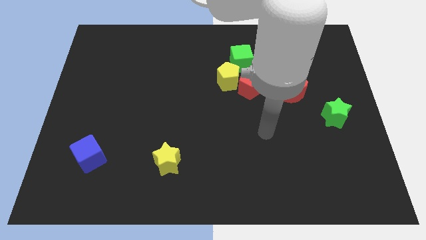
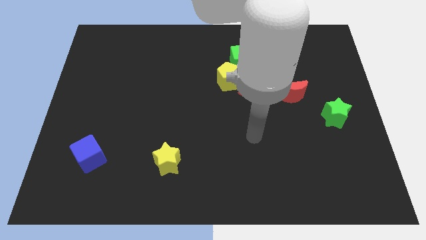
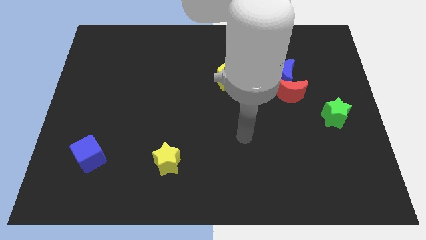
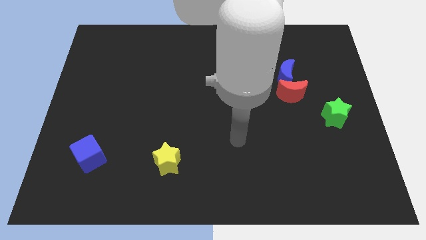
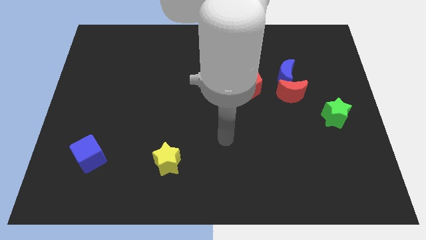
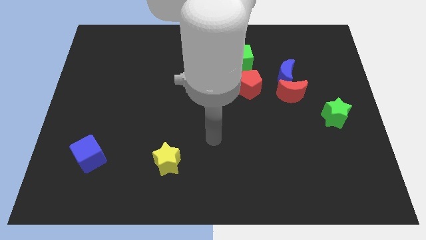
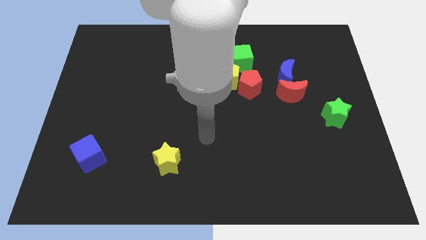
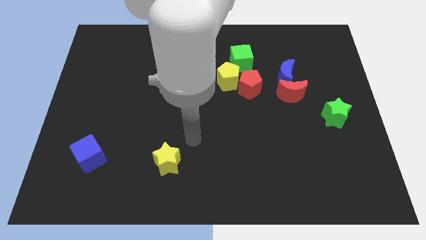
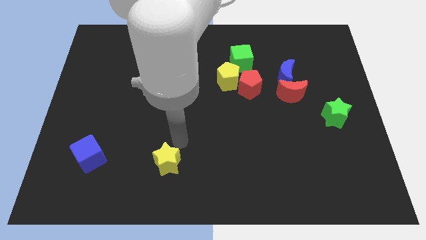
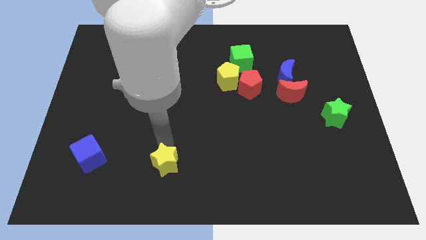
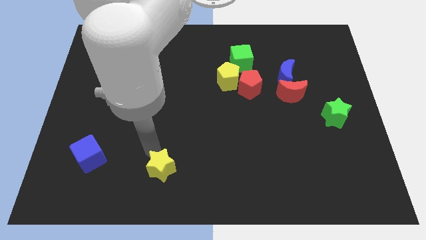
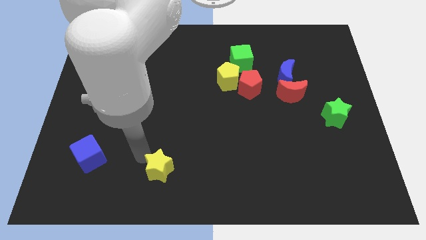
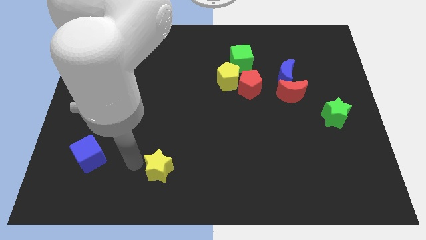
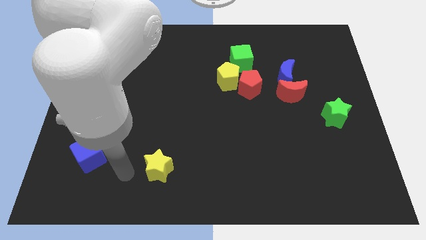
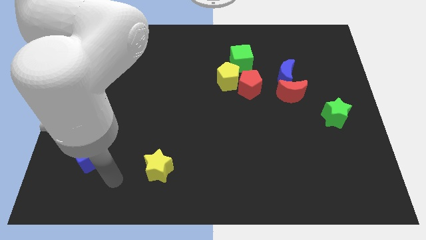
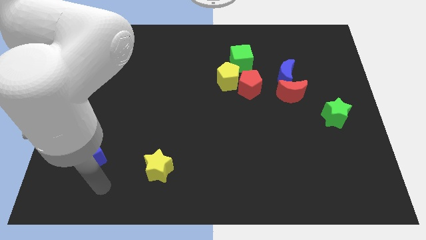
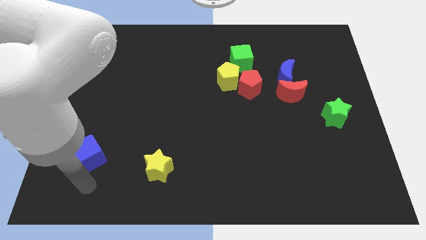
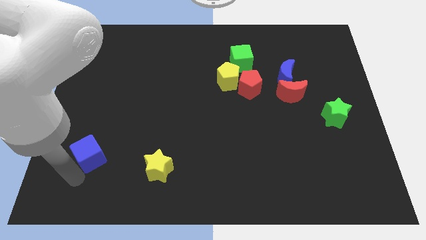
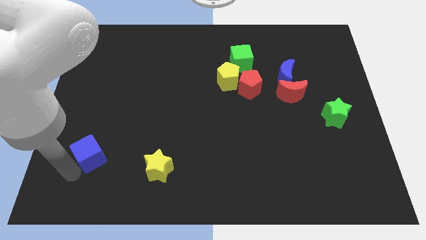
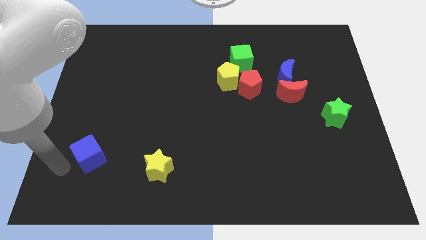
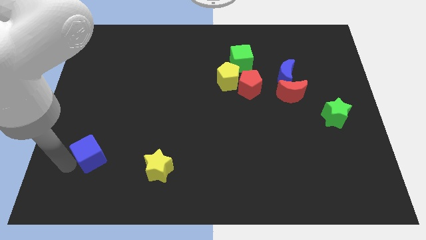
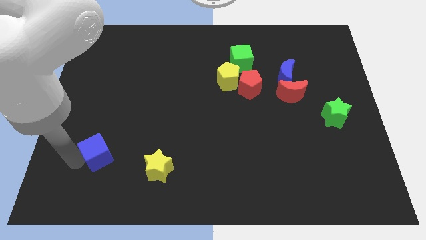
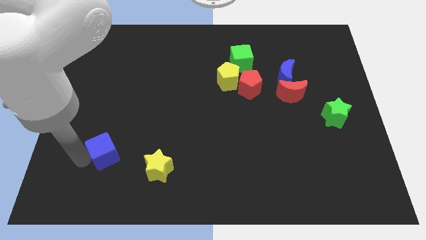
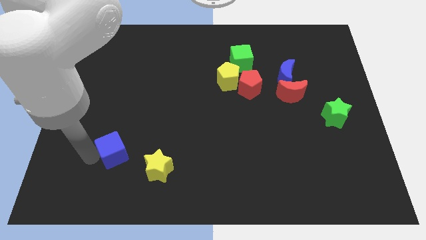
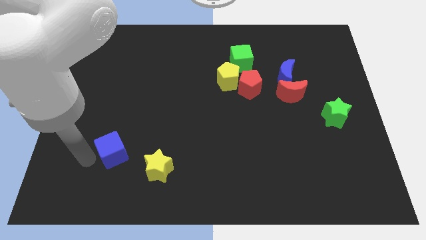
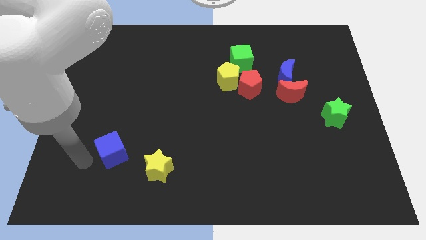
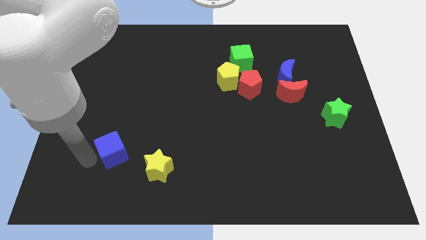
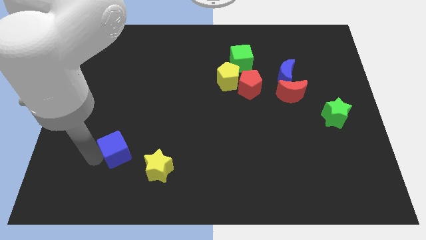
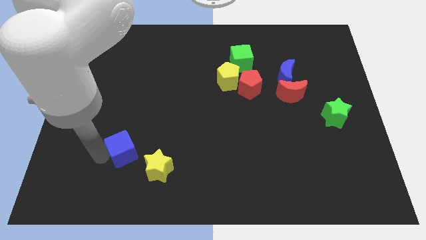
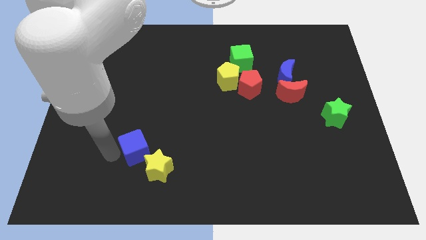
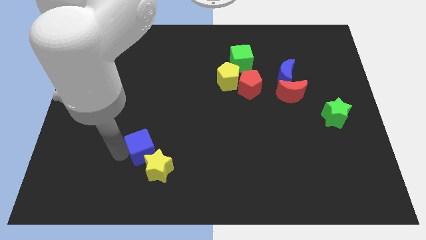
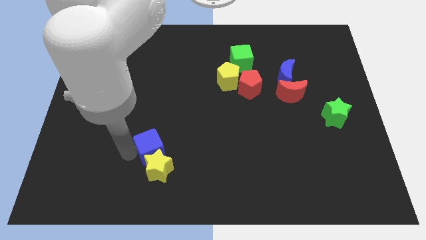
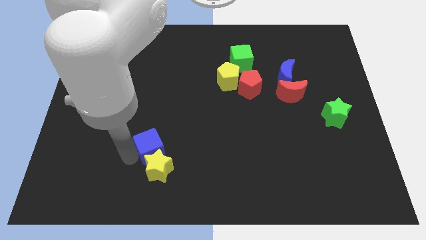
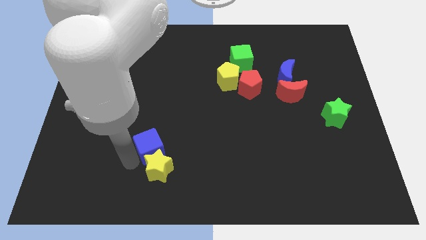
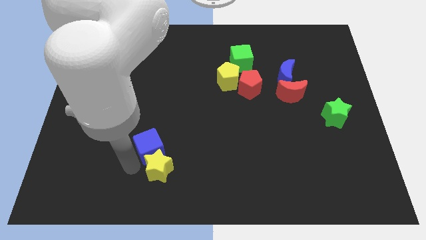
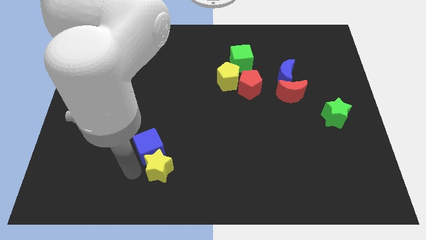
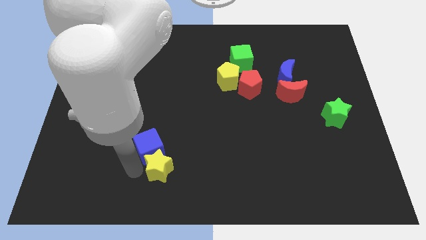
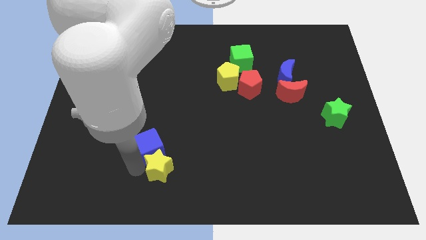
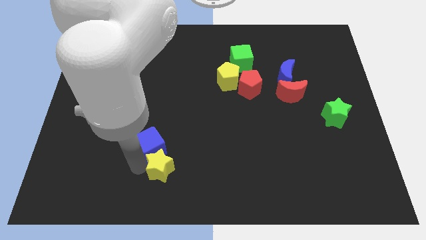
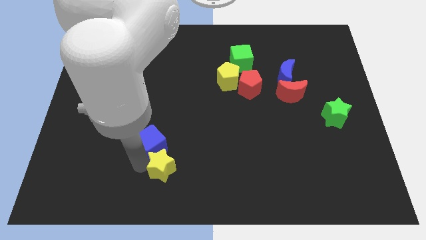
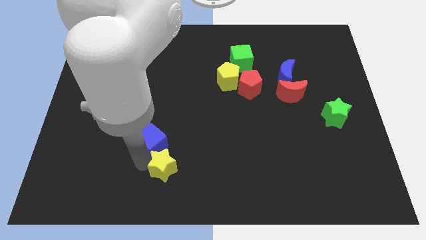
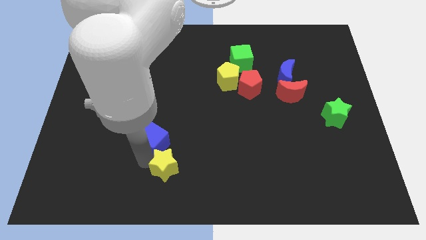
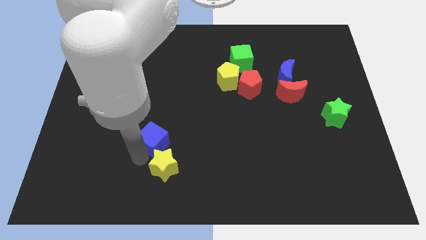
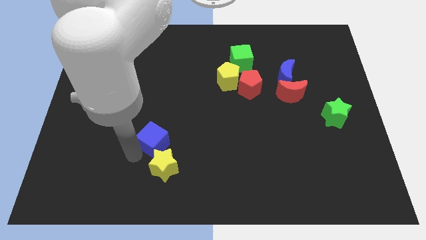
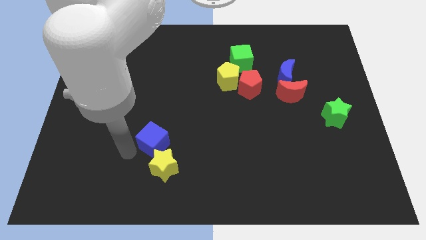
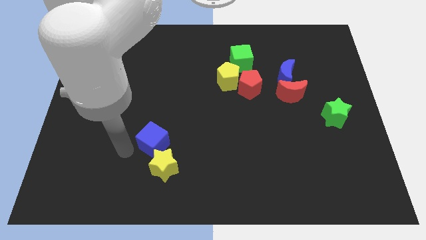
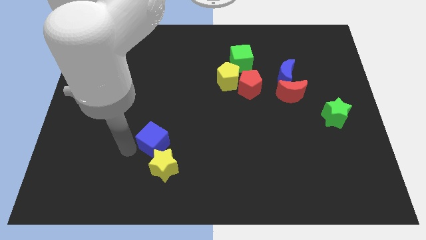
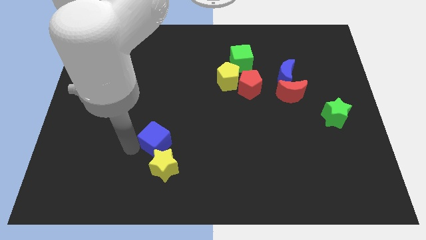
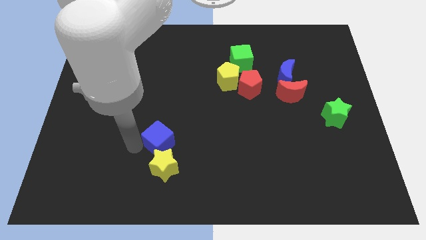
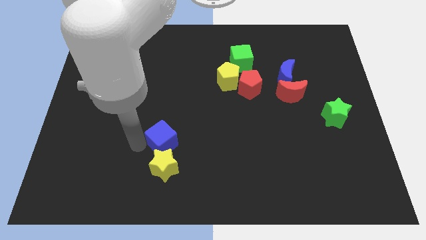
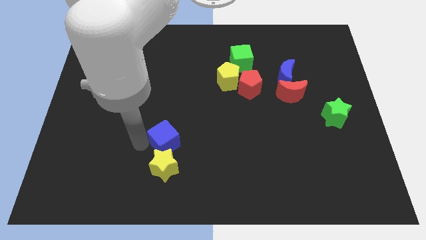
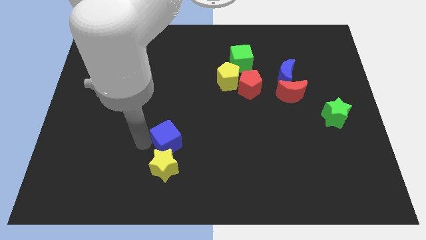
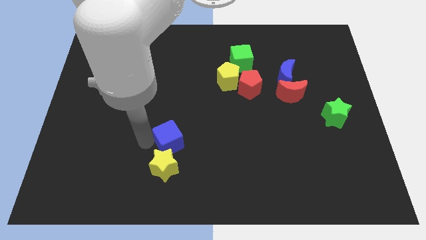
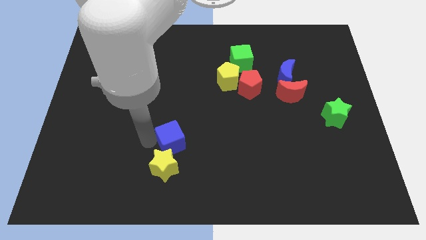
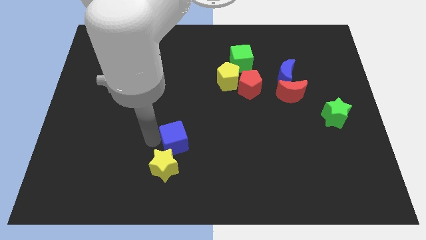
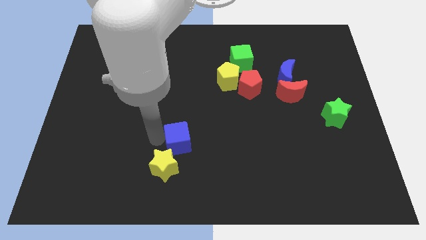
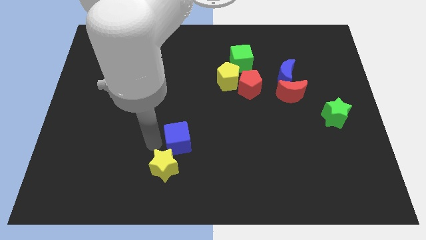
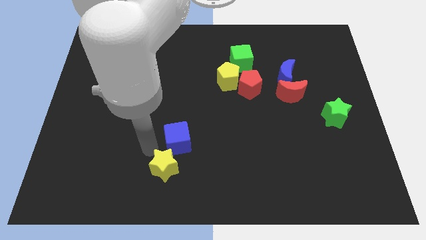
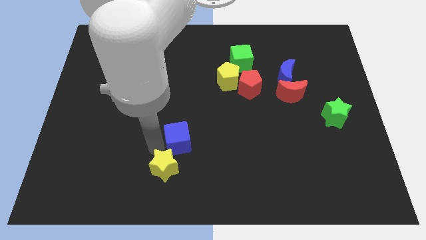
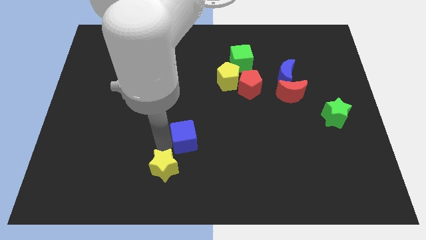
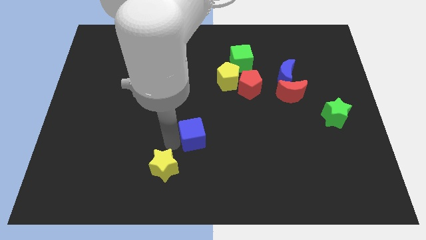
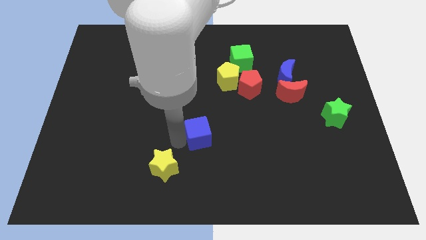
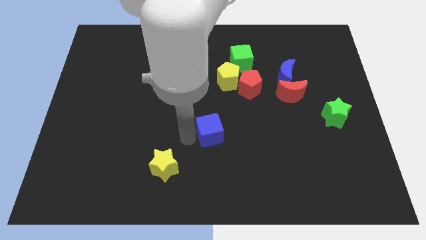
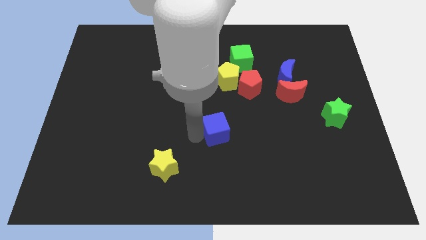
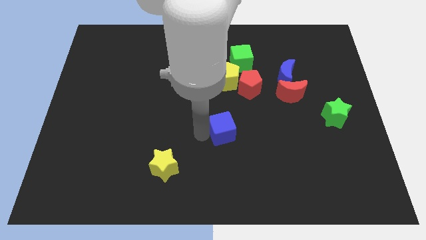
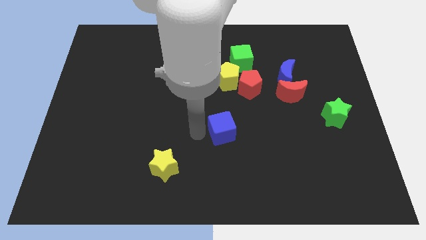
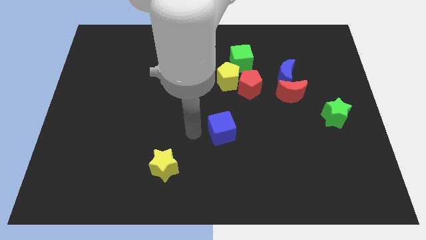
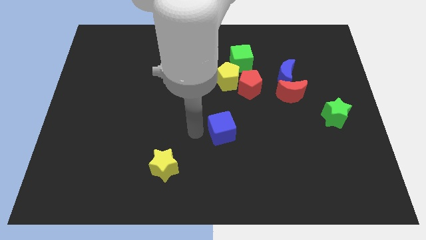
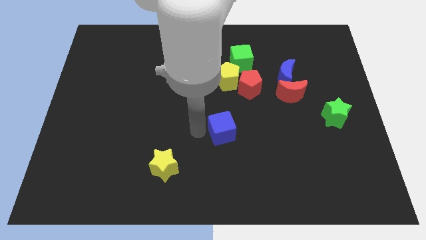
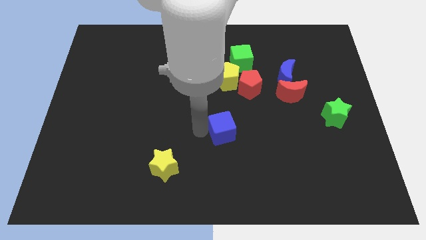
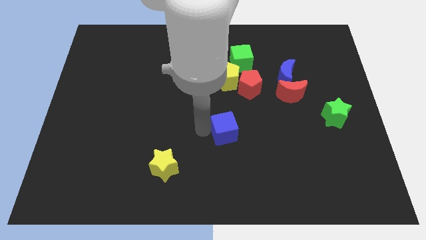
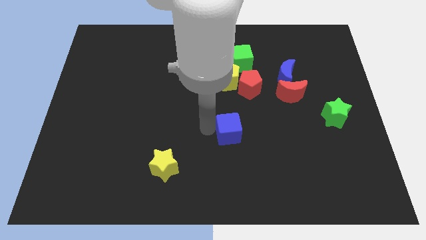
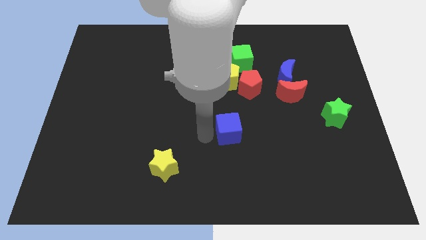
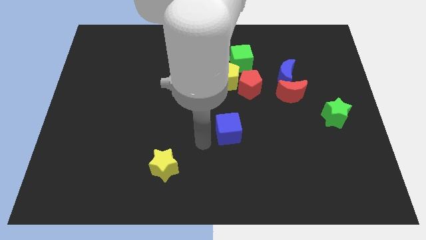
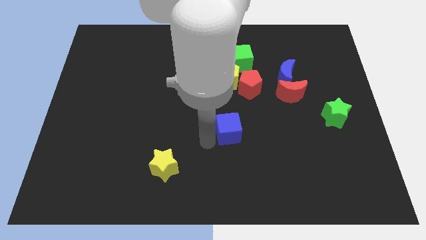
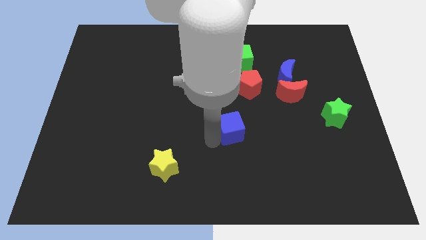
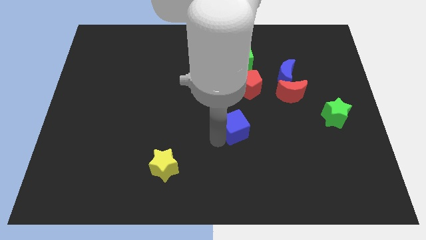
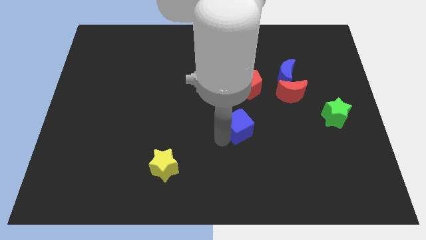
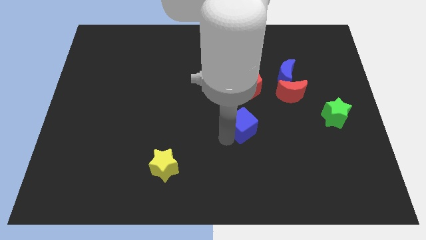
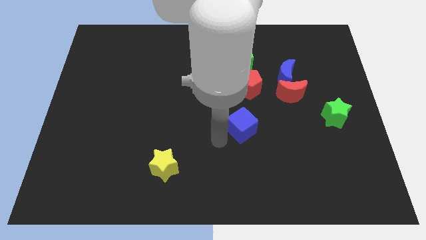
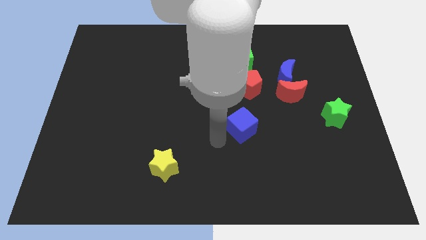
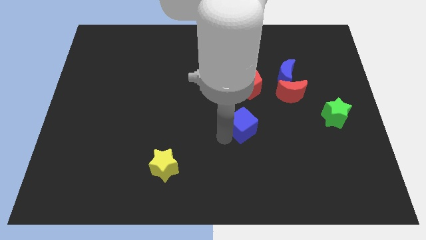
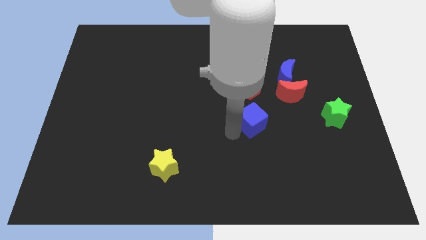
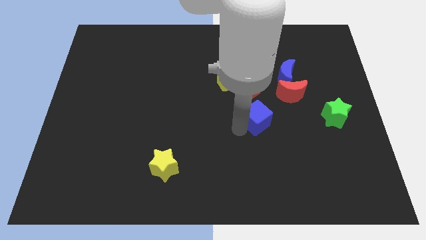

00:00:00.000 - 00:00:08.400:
push the blue cube to the bottom left side of the red moon
